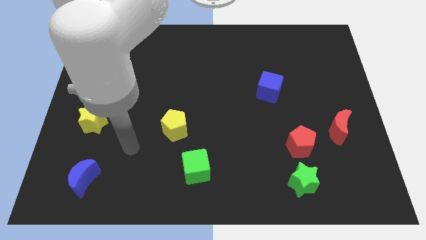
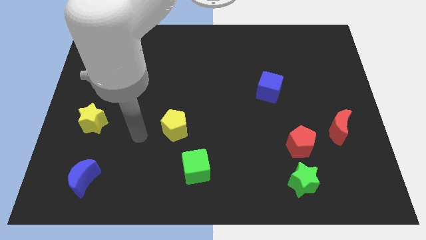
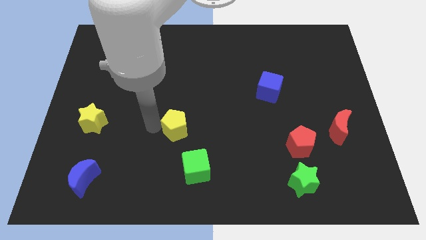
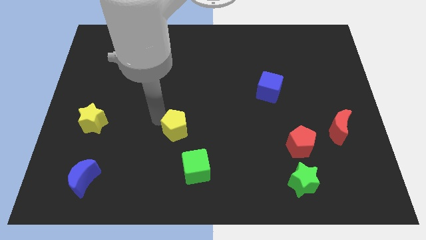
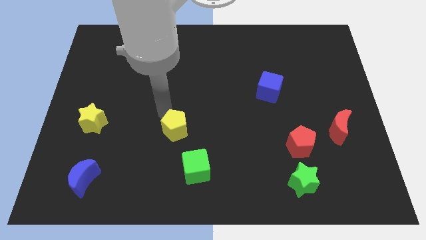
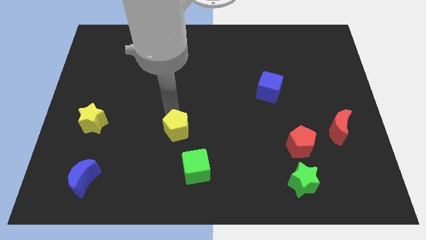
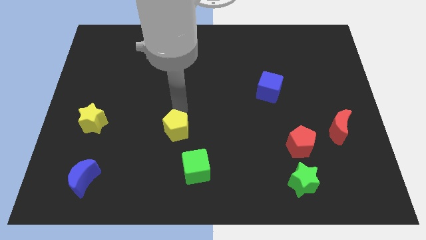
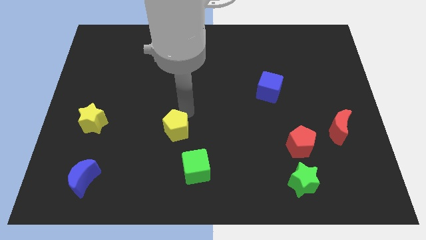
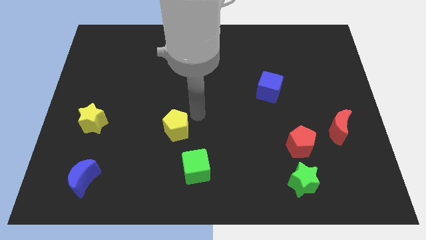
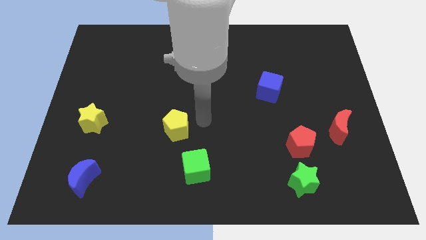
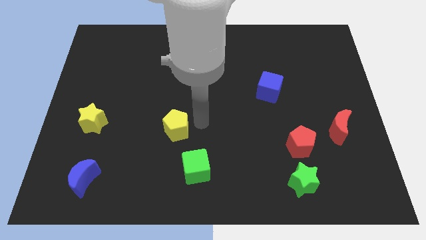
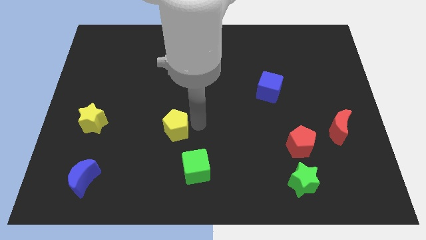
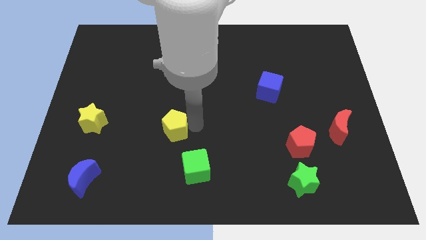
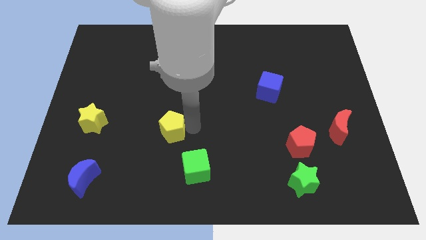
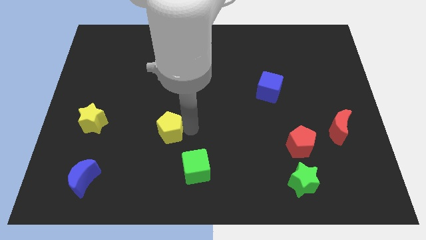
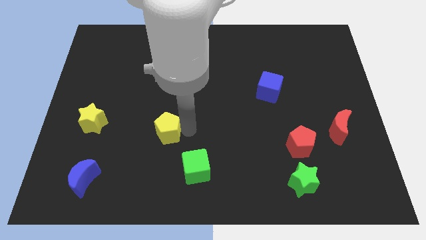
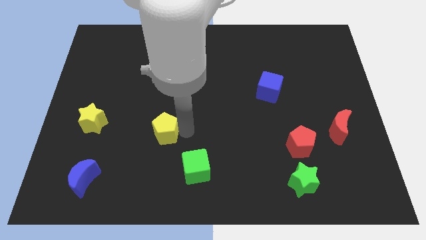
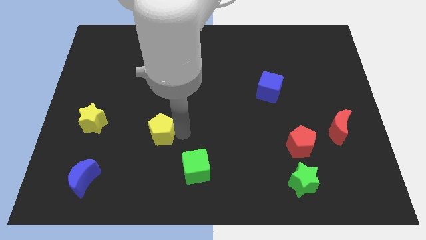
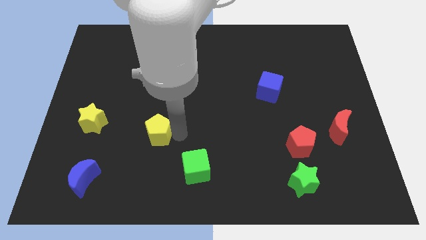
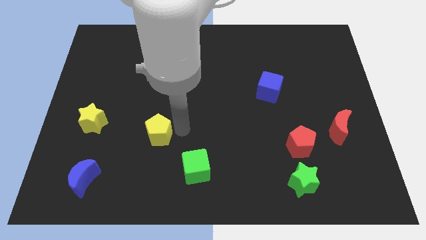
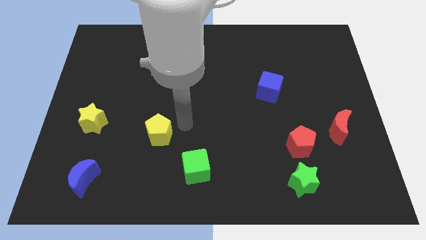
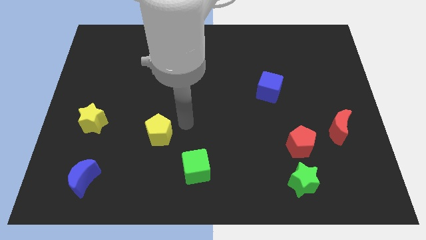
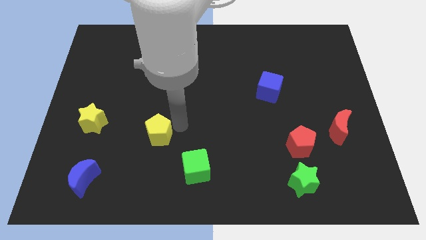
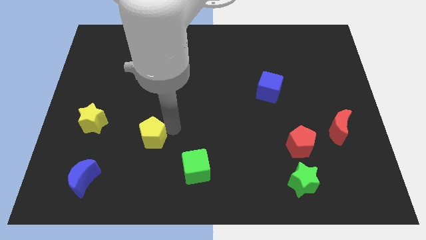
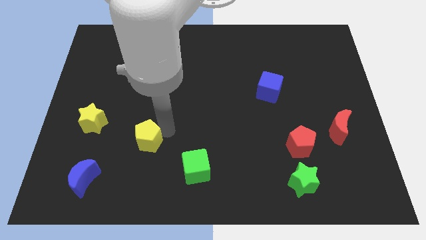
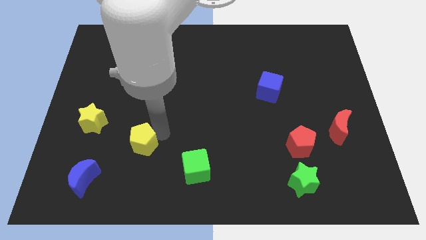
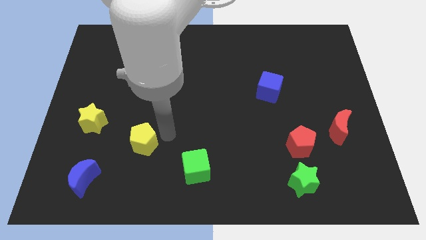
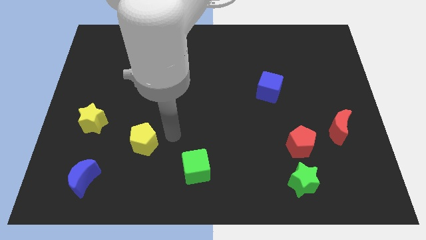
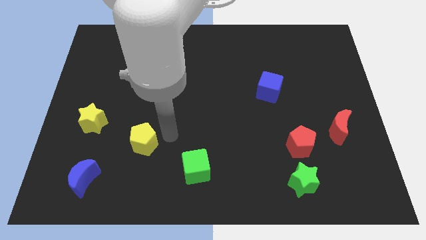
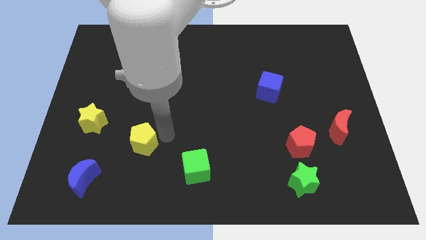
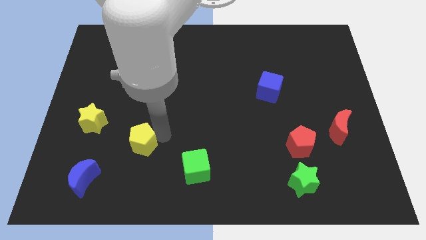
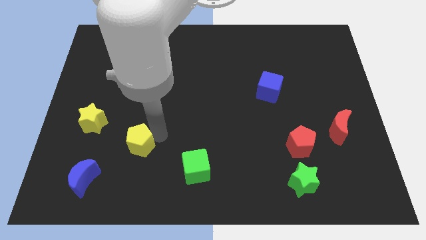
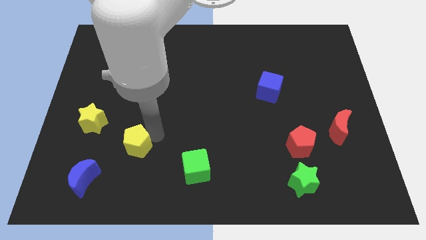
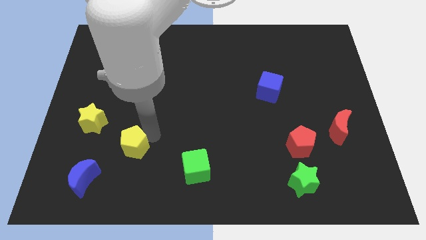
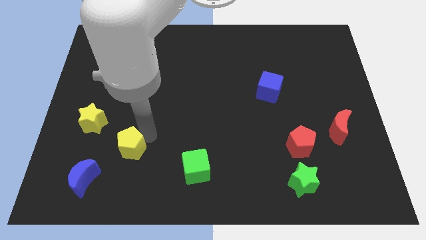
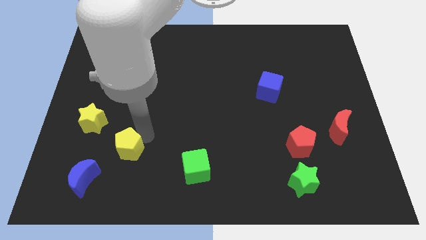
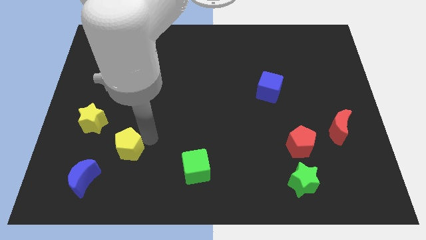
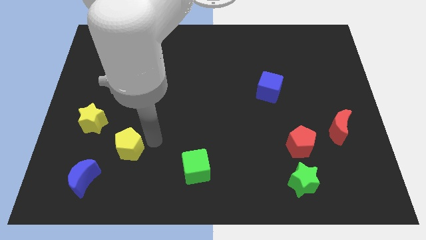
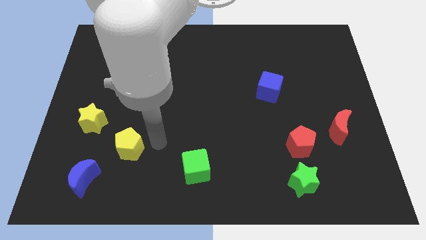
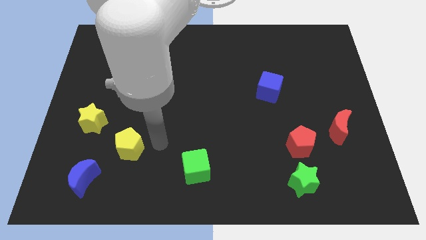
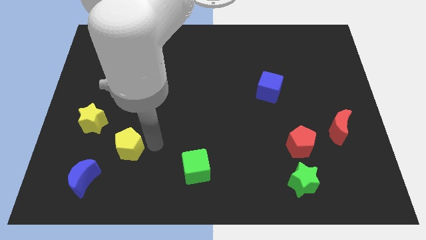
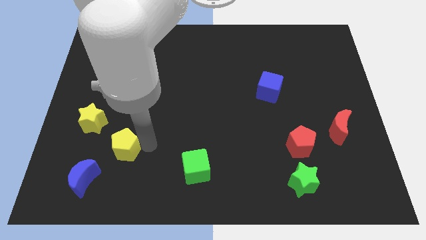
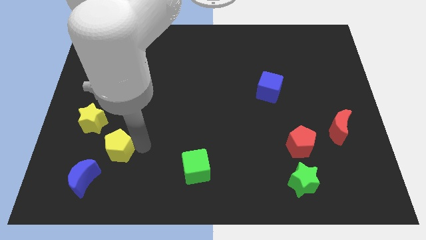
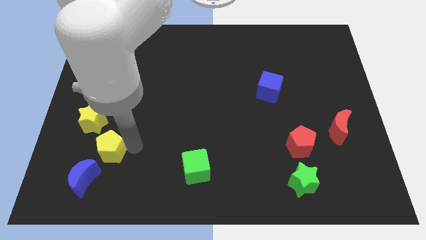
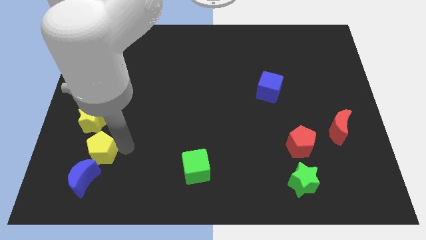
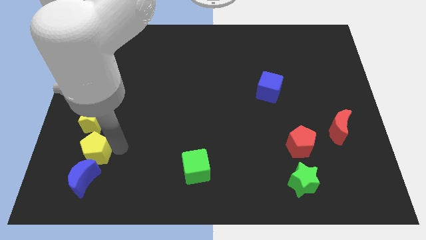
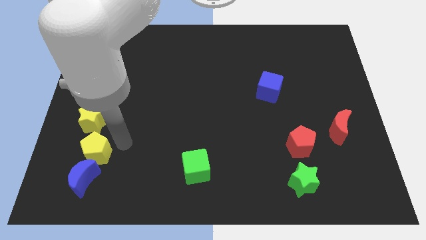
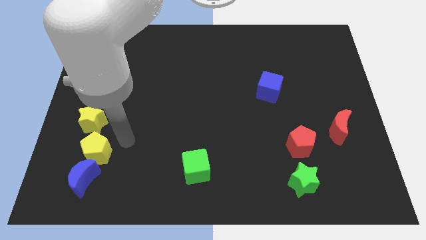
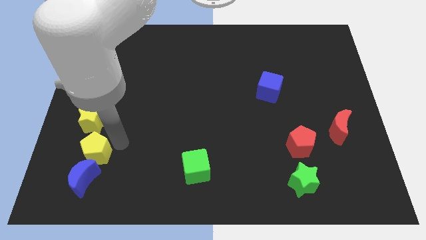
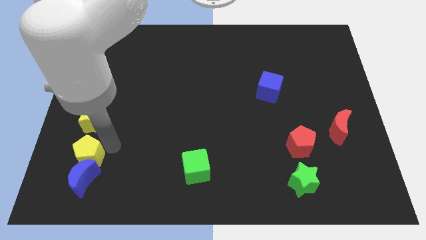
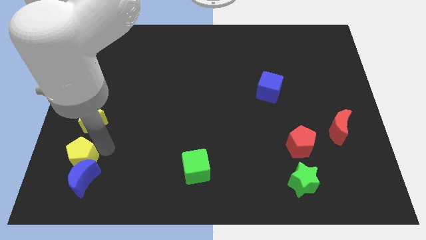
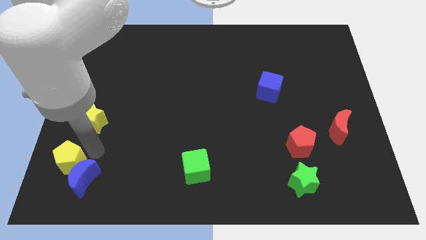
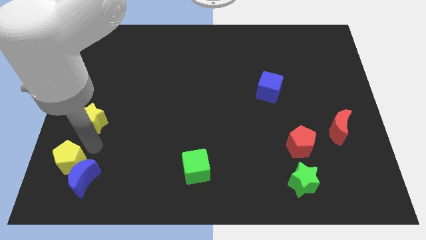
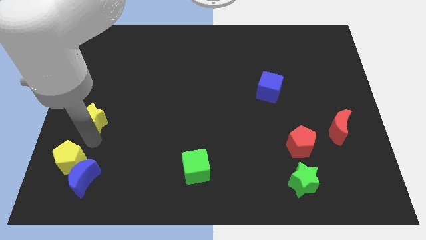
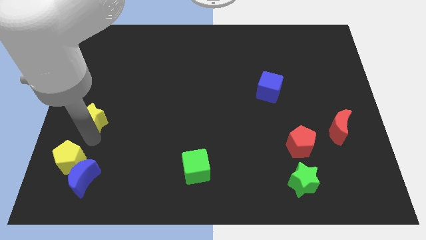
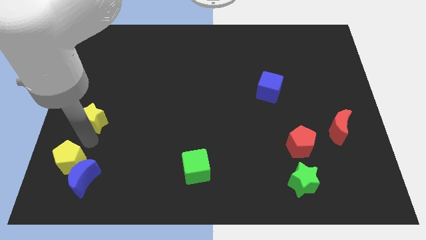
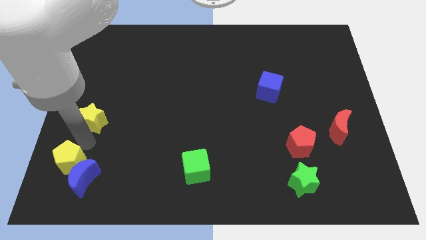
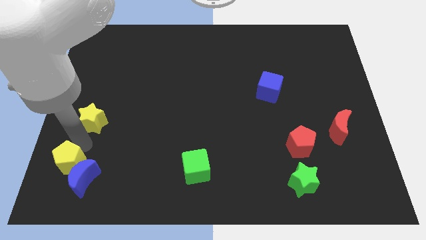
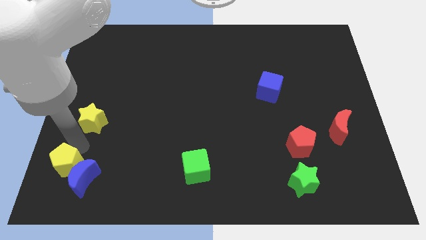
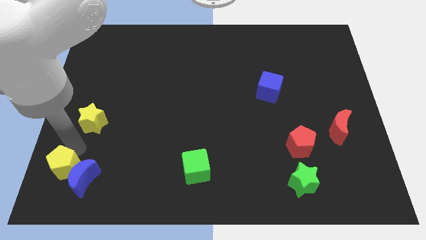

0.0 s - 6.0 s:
push the yellow pentagon to the bottom left of the board
